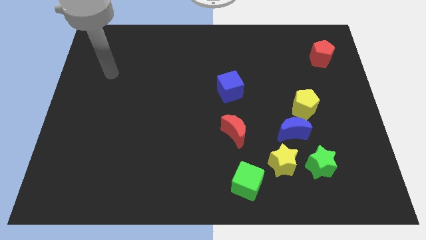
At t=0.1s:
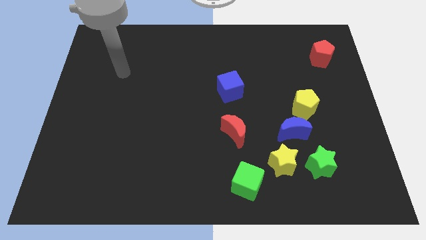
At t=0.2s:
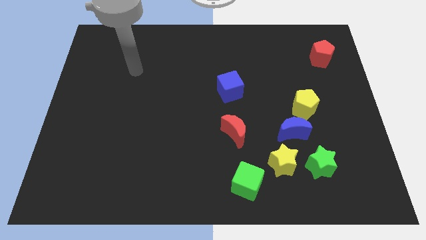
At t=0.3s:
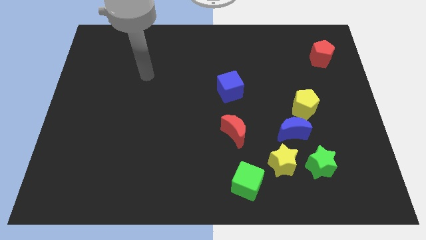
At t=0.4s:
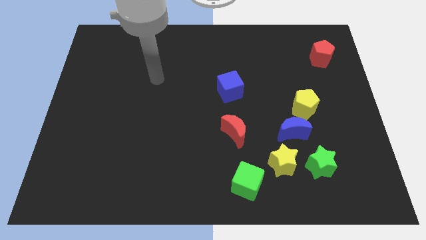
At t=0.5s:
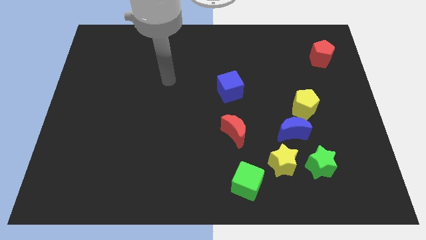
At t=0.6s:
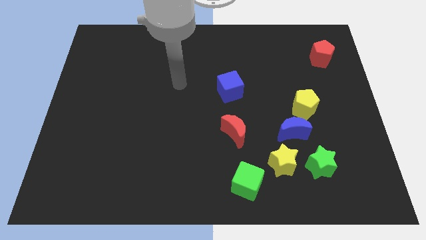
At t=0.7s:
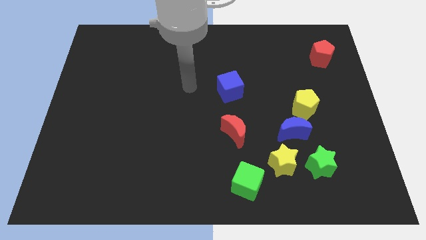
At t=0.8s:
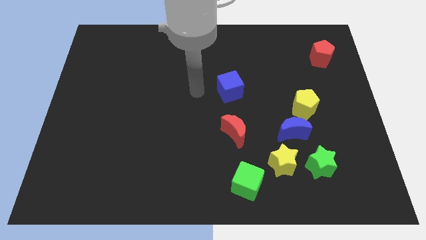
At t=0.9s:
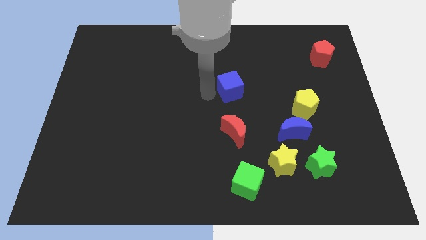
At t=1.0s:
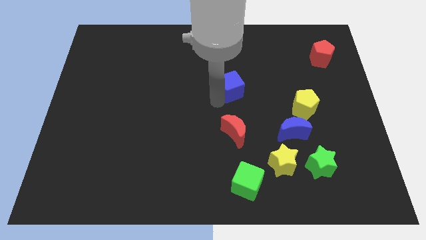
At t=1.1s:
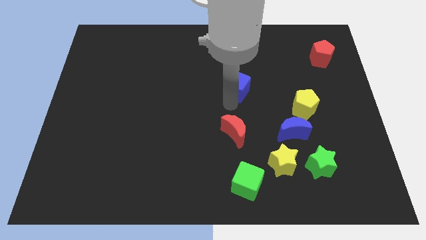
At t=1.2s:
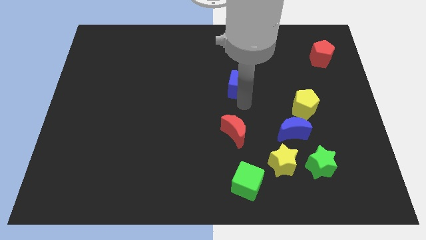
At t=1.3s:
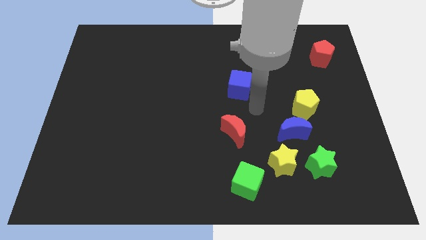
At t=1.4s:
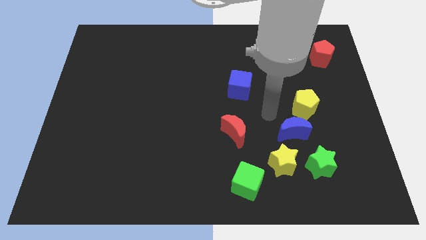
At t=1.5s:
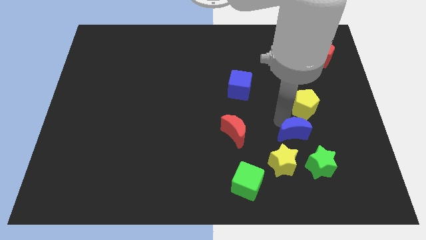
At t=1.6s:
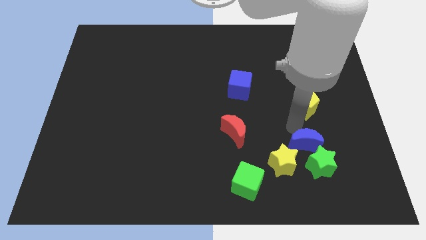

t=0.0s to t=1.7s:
move the yellow pentagon away from the blue moon

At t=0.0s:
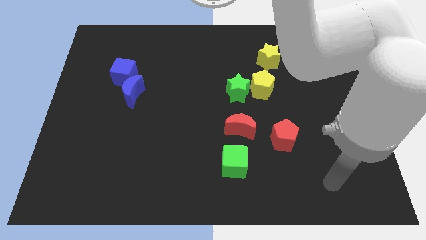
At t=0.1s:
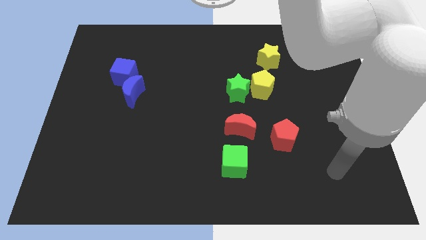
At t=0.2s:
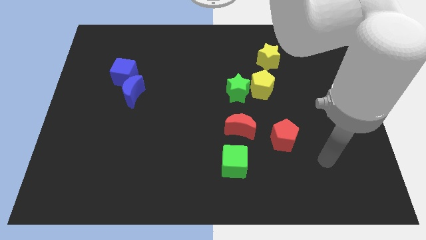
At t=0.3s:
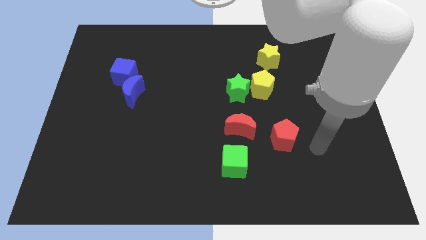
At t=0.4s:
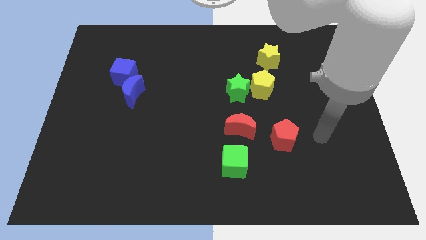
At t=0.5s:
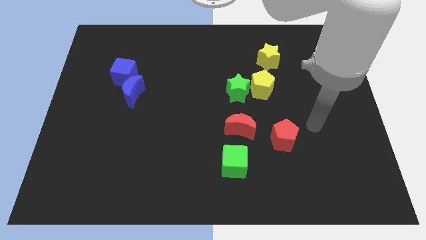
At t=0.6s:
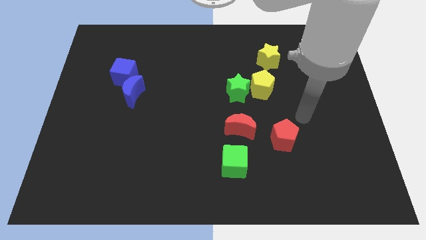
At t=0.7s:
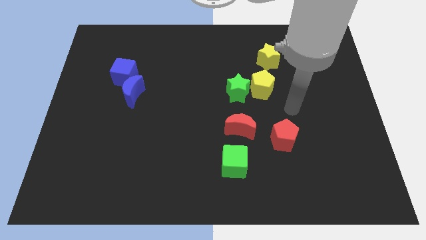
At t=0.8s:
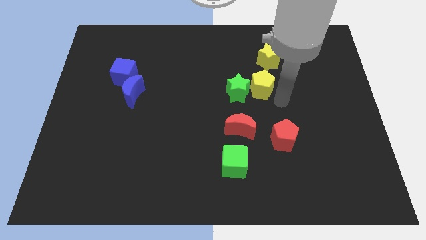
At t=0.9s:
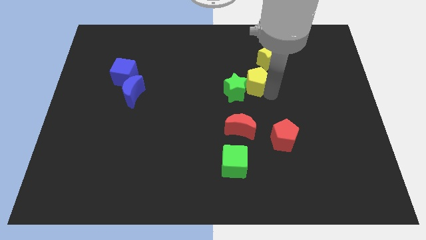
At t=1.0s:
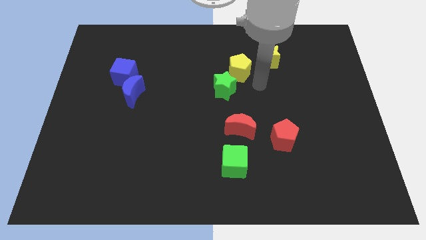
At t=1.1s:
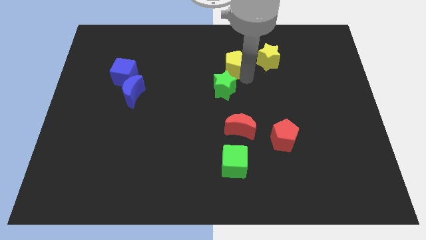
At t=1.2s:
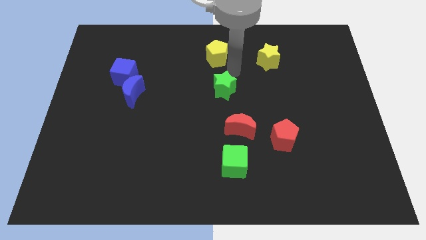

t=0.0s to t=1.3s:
move the green star away from the yellow pentagon

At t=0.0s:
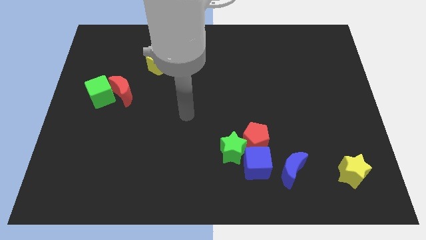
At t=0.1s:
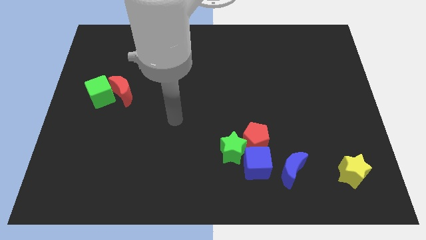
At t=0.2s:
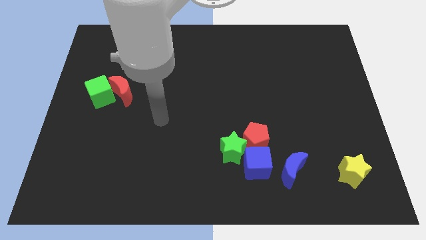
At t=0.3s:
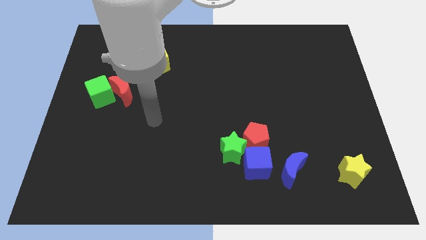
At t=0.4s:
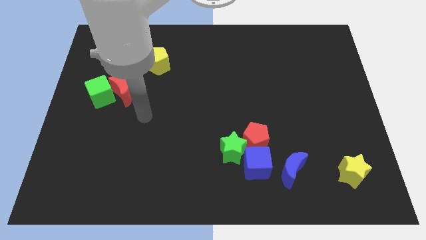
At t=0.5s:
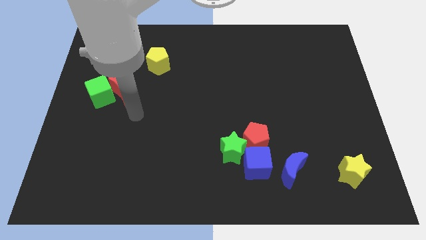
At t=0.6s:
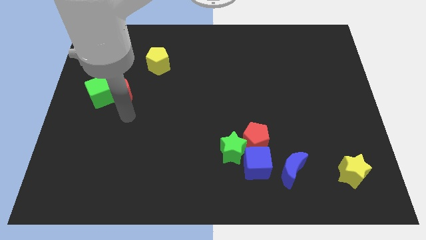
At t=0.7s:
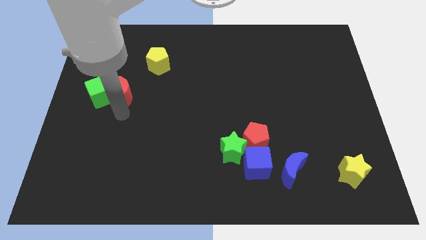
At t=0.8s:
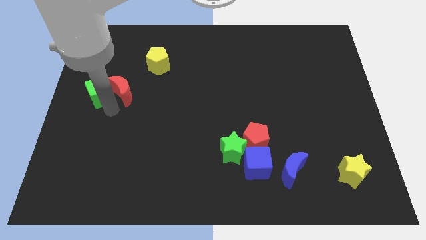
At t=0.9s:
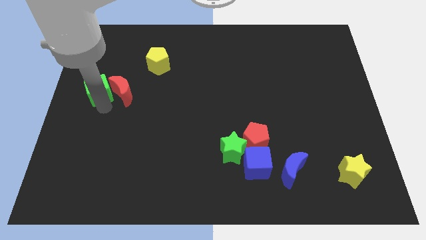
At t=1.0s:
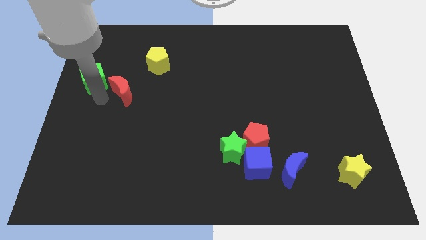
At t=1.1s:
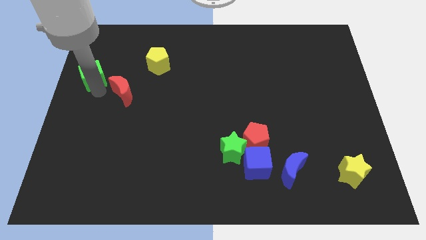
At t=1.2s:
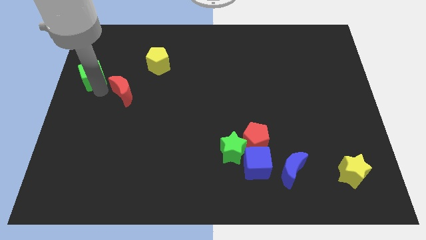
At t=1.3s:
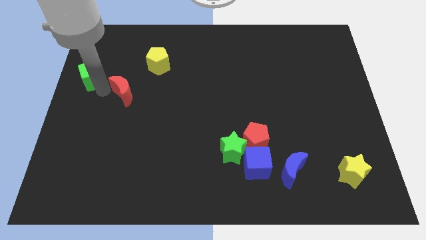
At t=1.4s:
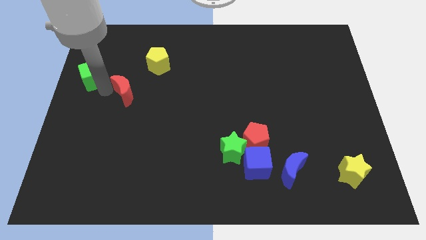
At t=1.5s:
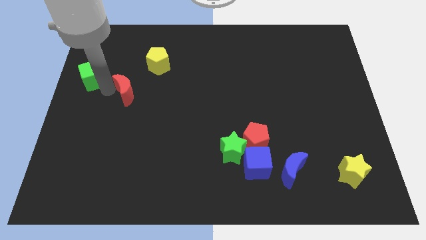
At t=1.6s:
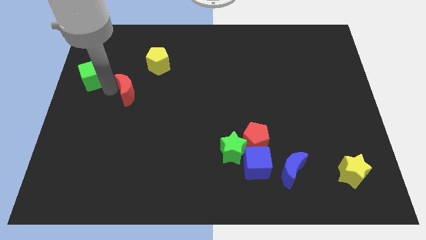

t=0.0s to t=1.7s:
move the red moon away from the green cube

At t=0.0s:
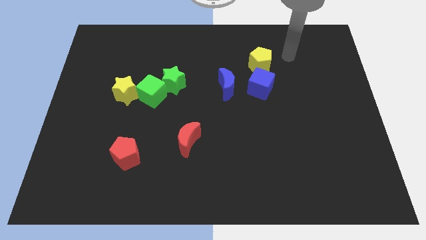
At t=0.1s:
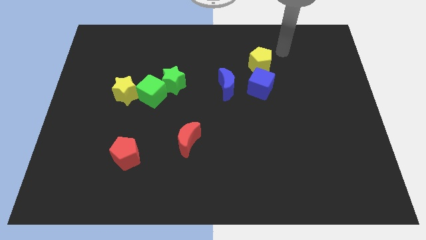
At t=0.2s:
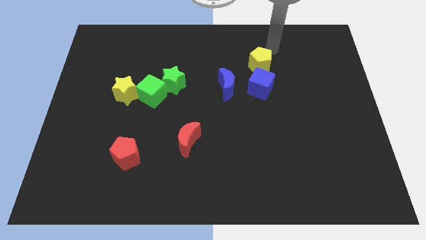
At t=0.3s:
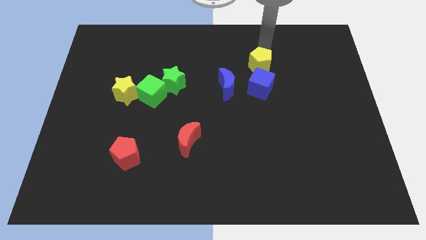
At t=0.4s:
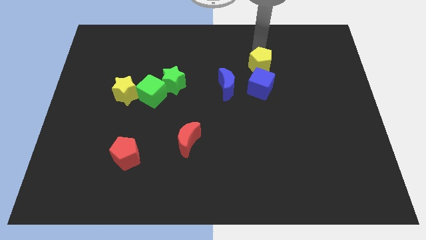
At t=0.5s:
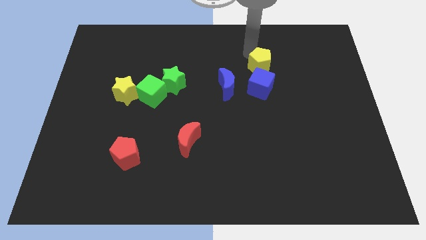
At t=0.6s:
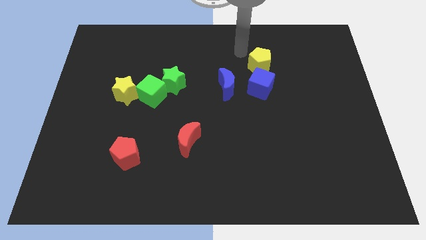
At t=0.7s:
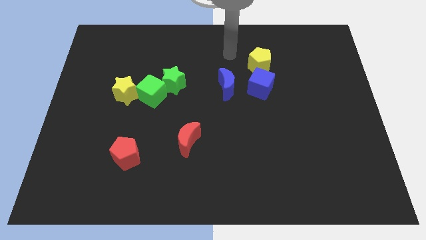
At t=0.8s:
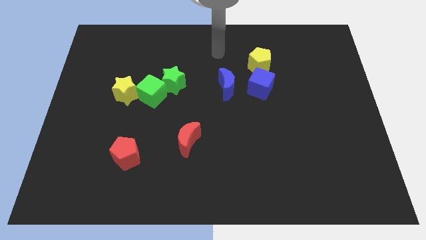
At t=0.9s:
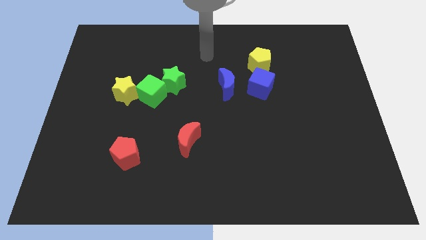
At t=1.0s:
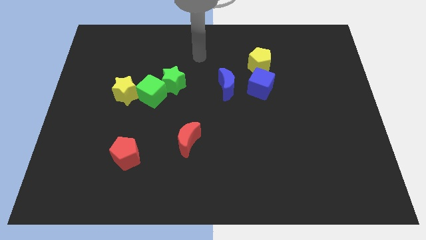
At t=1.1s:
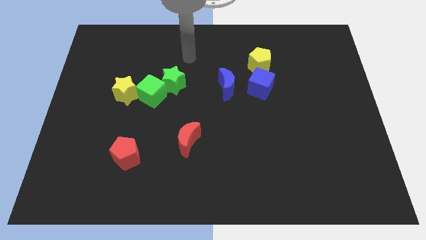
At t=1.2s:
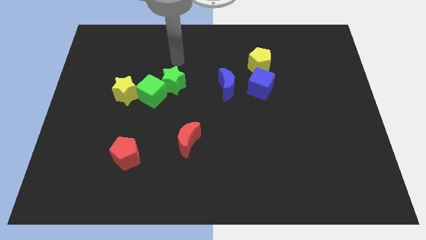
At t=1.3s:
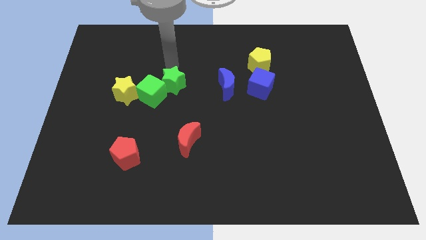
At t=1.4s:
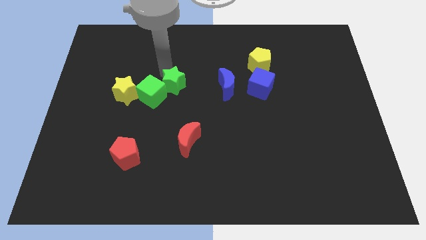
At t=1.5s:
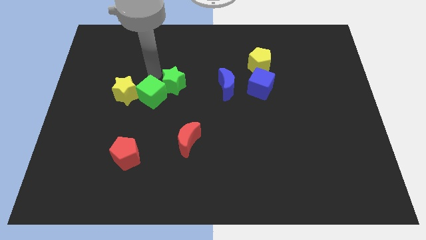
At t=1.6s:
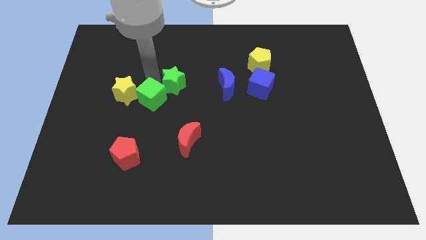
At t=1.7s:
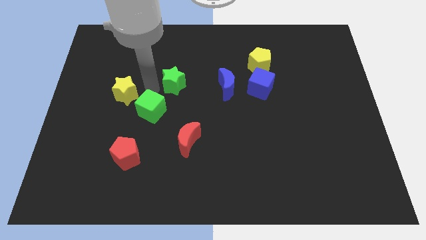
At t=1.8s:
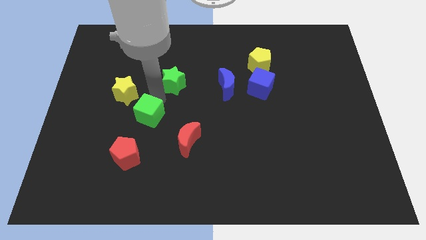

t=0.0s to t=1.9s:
pull the green star apart from the green cube

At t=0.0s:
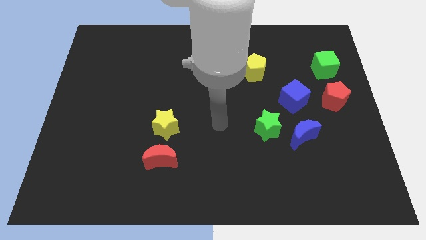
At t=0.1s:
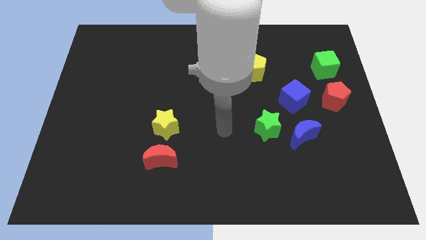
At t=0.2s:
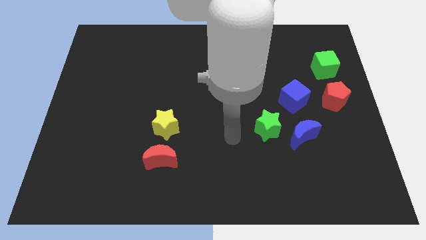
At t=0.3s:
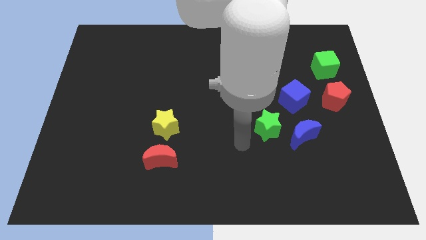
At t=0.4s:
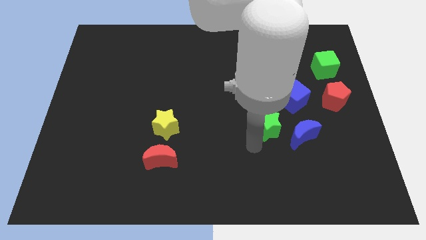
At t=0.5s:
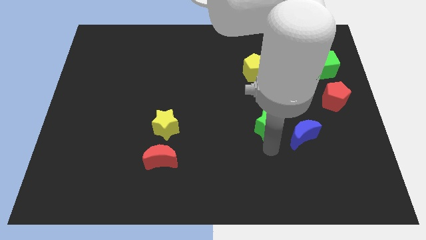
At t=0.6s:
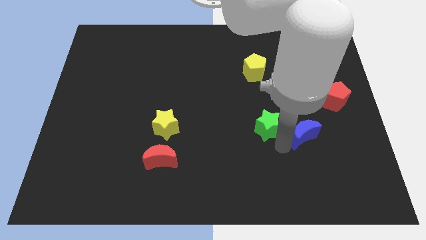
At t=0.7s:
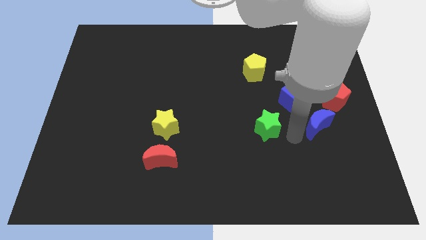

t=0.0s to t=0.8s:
move the green star away from the blue moon

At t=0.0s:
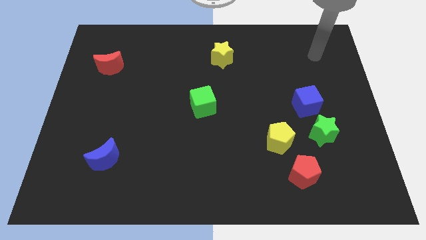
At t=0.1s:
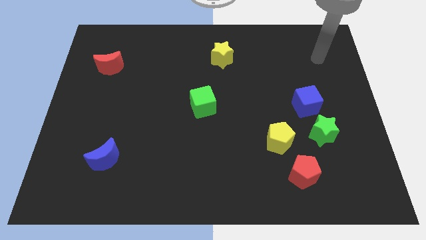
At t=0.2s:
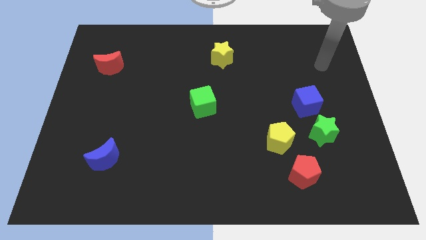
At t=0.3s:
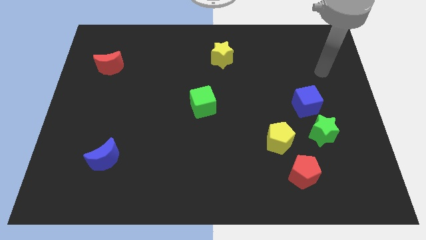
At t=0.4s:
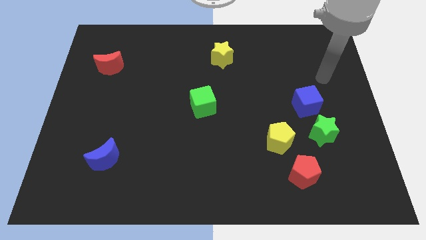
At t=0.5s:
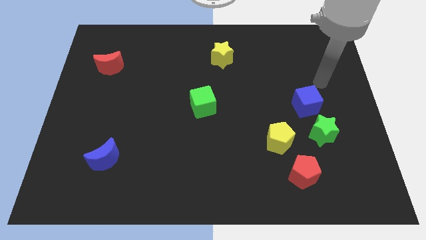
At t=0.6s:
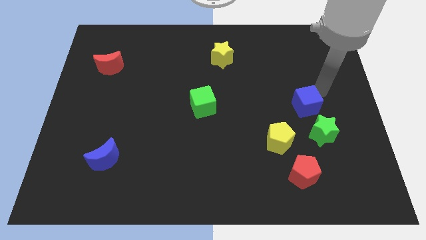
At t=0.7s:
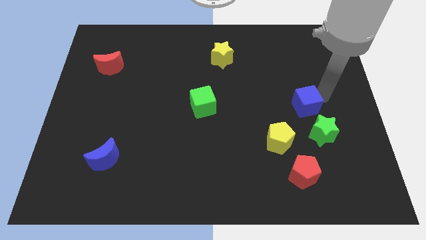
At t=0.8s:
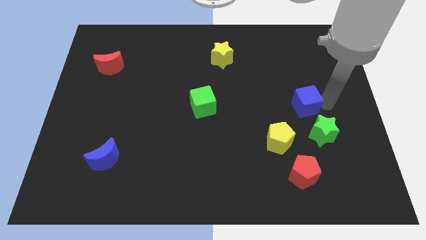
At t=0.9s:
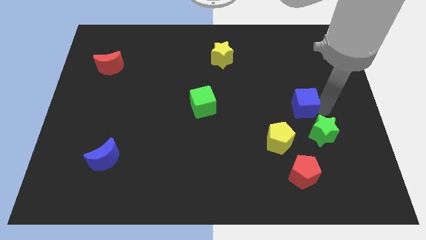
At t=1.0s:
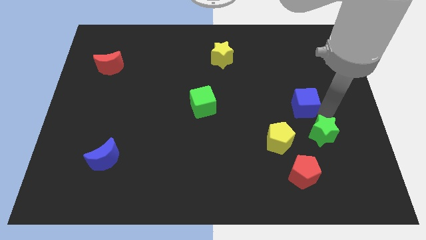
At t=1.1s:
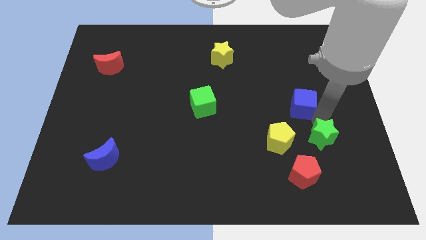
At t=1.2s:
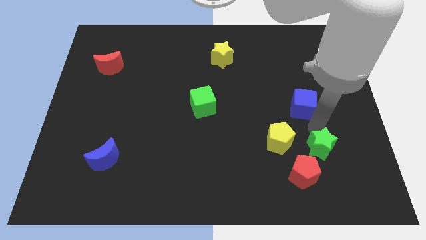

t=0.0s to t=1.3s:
move the blue cube away from the green star

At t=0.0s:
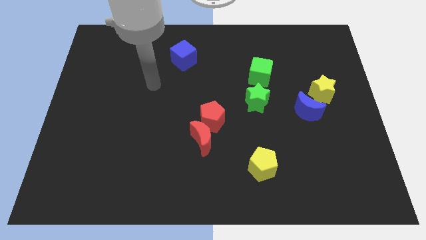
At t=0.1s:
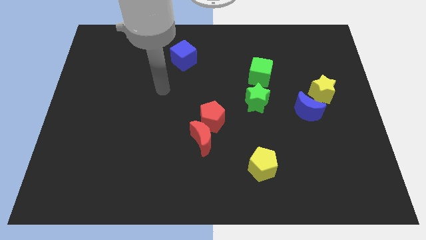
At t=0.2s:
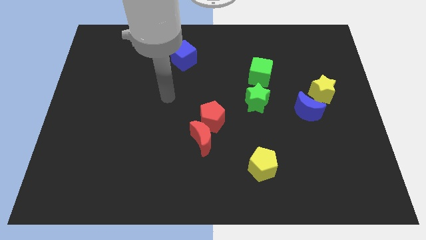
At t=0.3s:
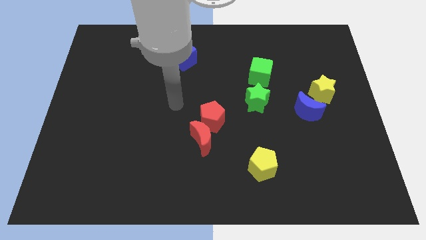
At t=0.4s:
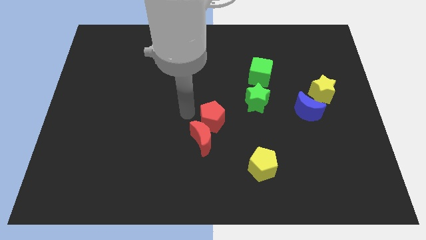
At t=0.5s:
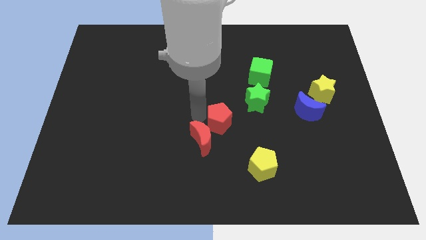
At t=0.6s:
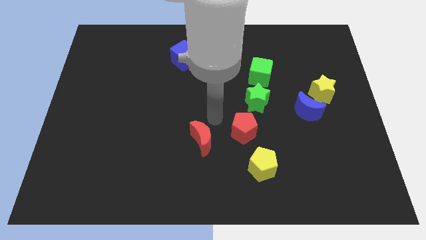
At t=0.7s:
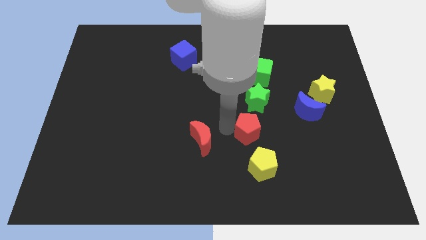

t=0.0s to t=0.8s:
move the red moon away from the red pentagon
